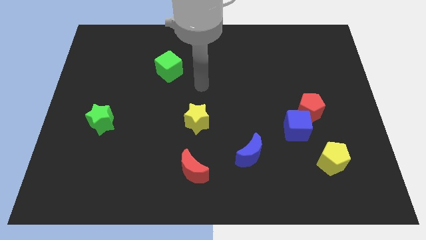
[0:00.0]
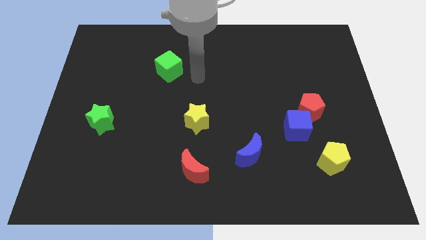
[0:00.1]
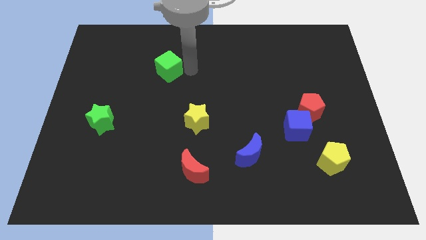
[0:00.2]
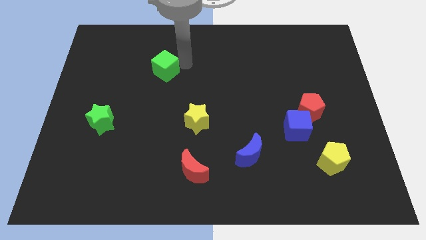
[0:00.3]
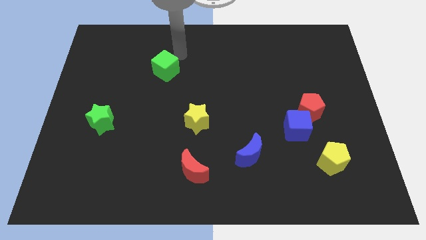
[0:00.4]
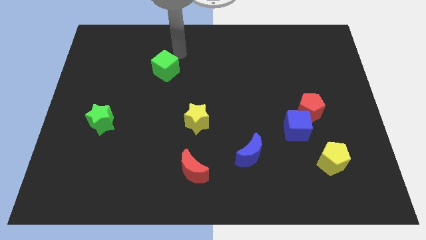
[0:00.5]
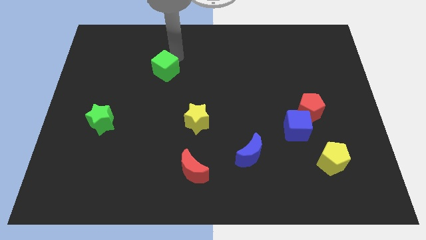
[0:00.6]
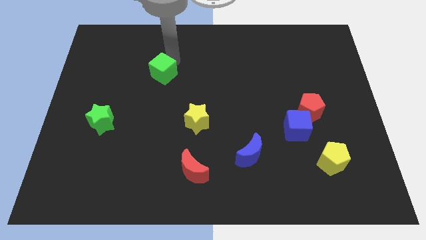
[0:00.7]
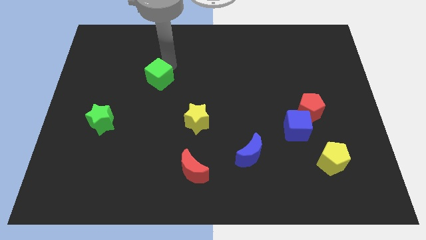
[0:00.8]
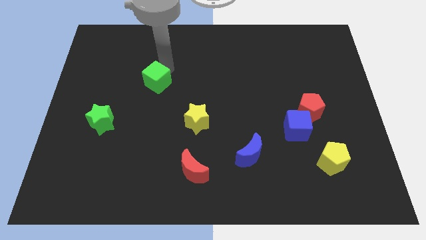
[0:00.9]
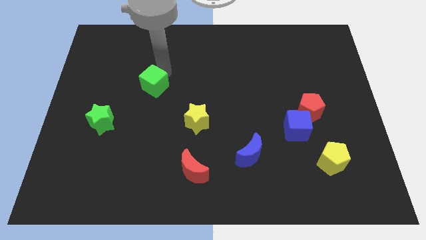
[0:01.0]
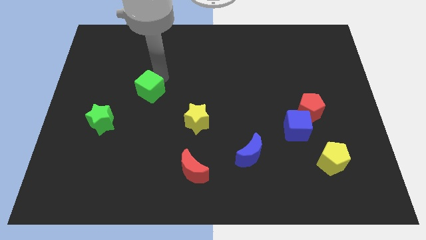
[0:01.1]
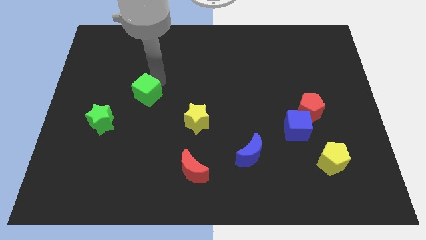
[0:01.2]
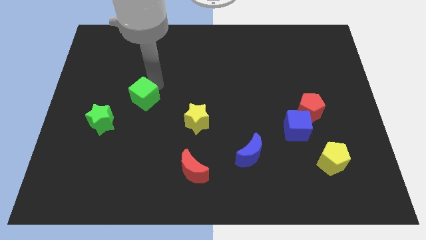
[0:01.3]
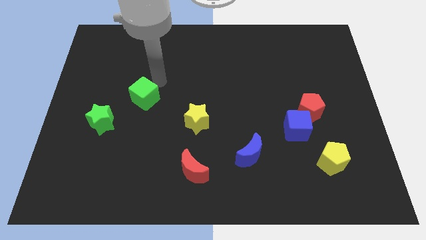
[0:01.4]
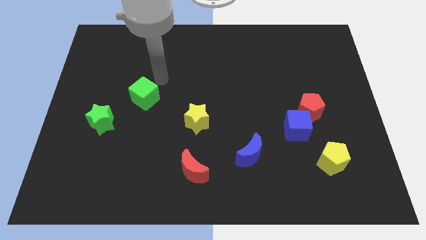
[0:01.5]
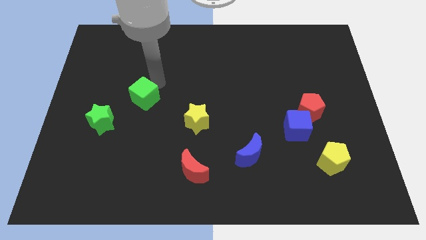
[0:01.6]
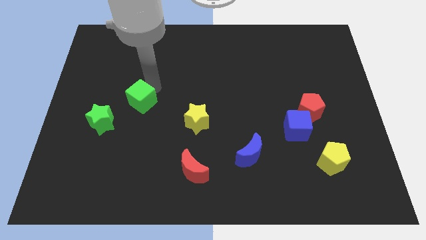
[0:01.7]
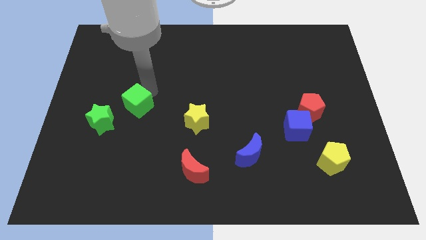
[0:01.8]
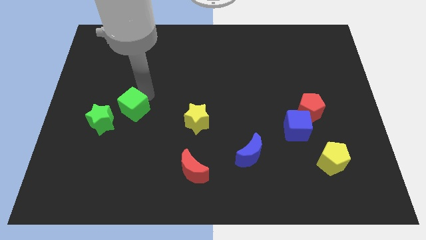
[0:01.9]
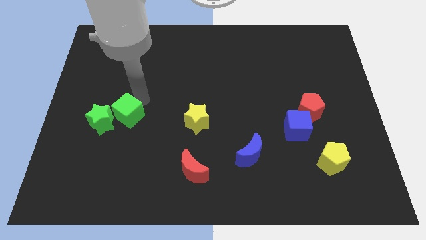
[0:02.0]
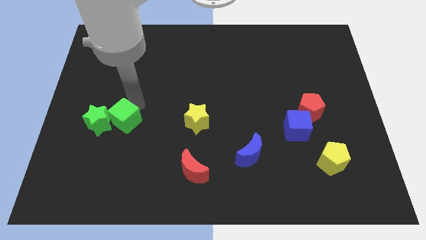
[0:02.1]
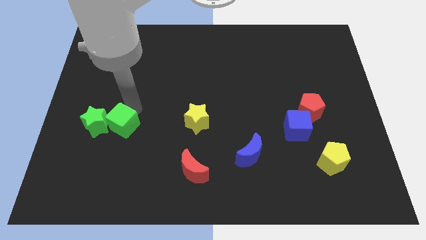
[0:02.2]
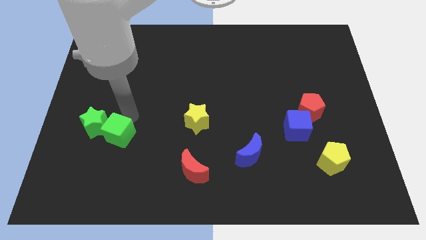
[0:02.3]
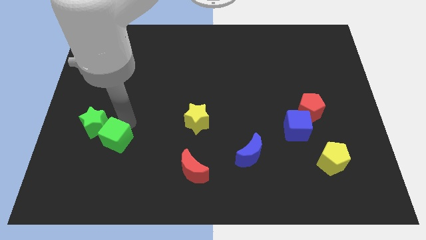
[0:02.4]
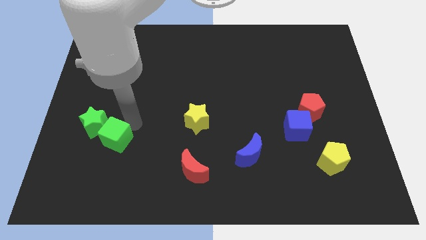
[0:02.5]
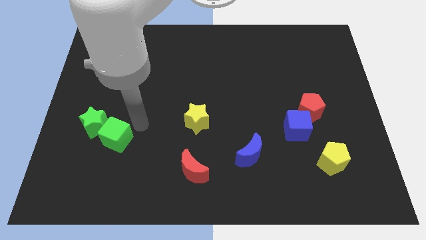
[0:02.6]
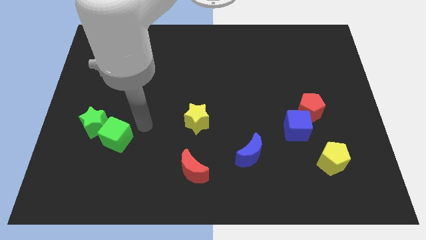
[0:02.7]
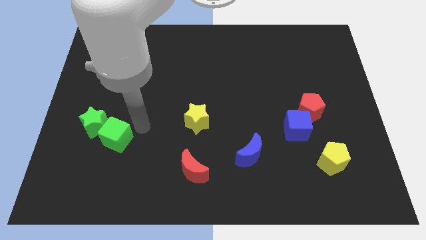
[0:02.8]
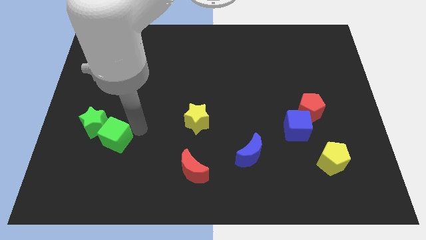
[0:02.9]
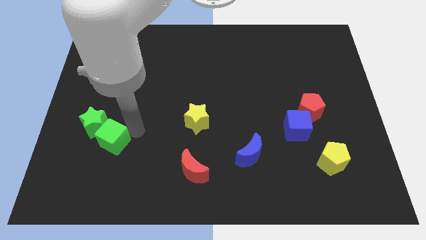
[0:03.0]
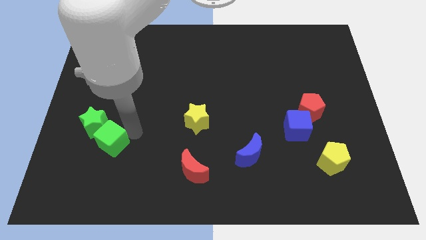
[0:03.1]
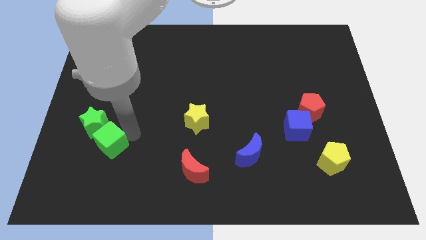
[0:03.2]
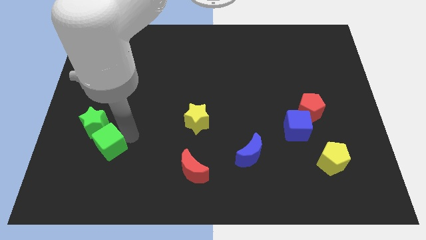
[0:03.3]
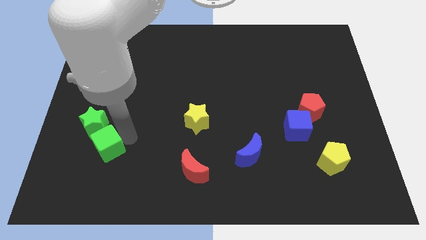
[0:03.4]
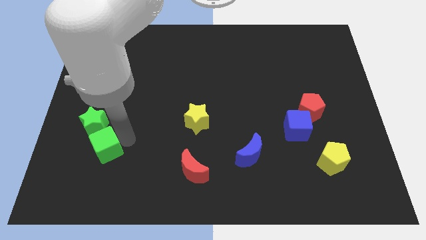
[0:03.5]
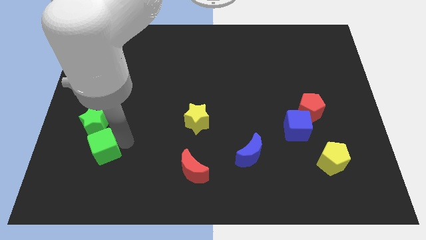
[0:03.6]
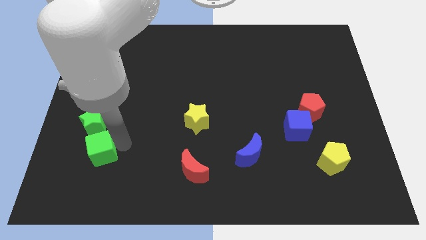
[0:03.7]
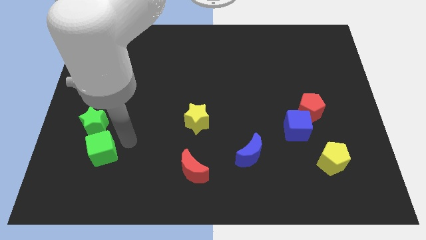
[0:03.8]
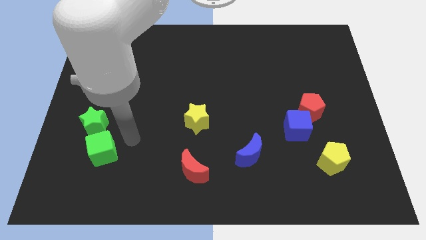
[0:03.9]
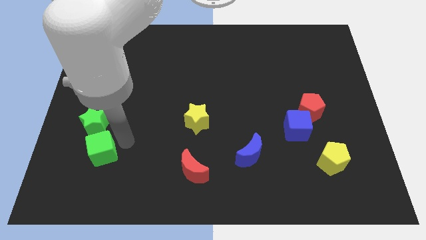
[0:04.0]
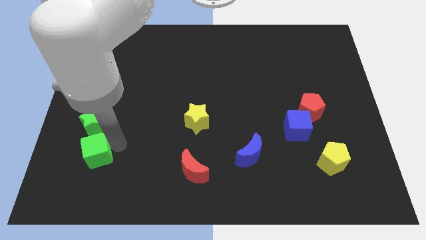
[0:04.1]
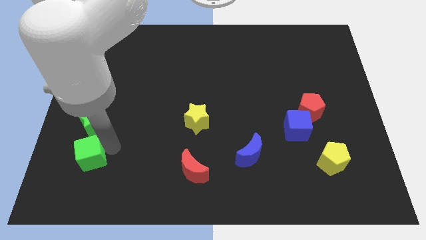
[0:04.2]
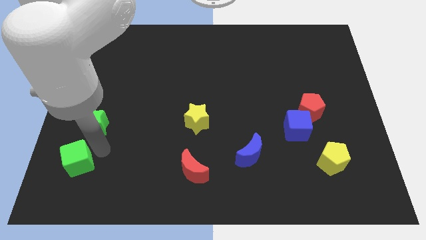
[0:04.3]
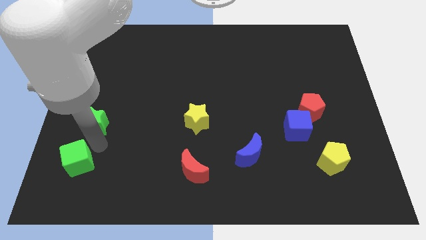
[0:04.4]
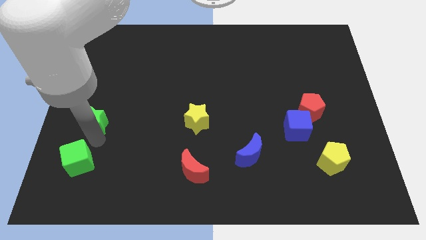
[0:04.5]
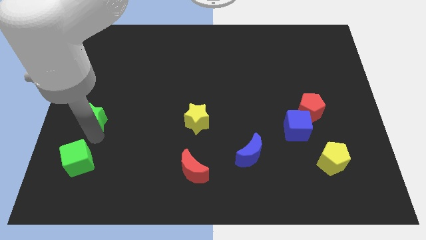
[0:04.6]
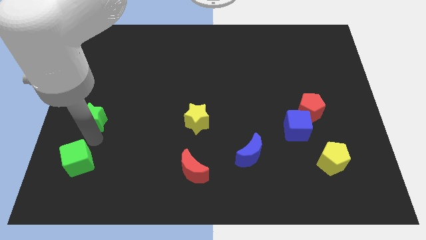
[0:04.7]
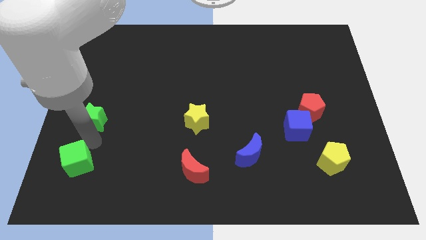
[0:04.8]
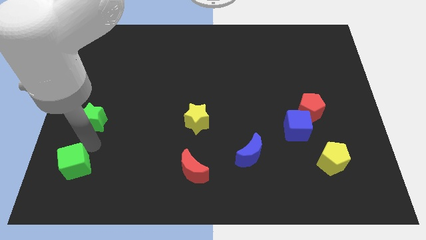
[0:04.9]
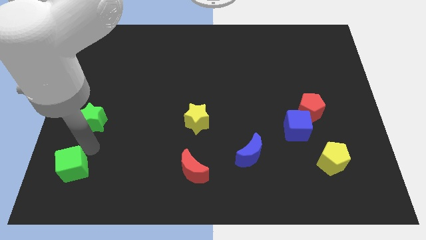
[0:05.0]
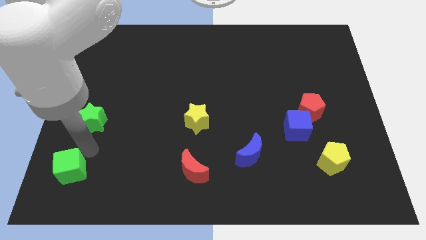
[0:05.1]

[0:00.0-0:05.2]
put the green cube to the bottom left of the board

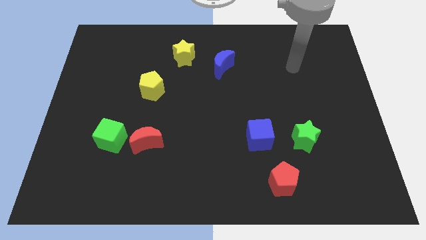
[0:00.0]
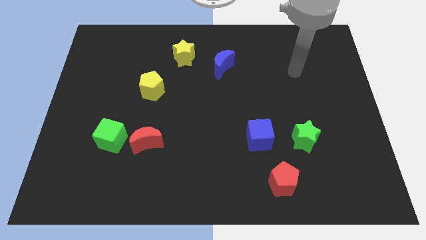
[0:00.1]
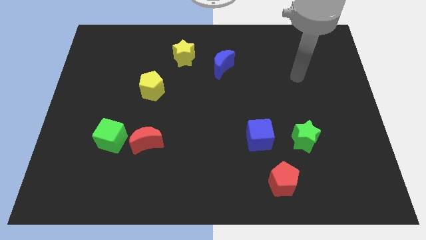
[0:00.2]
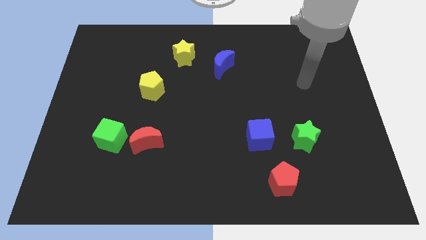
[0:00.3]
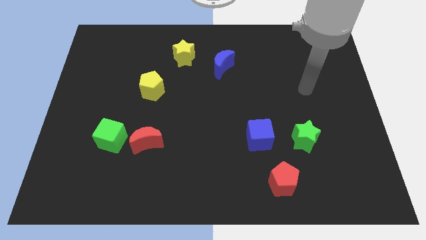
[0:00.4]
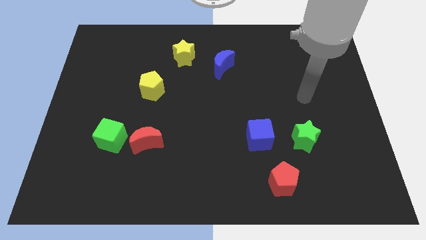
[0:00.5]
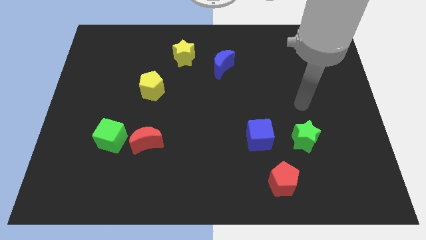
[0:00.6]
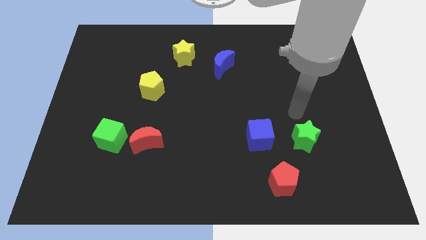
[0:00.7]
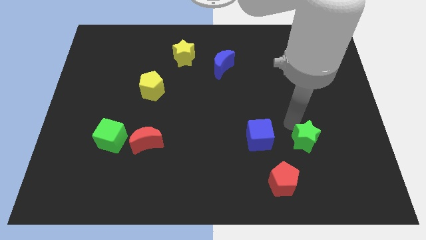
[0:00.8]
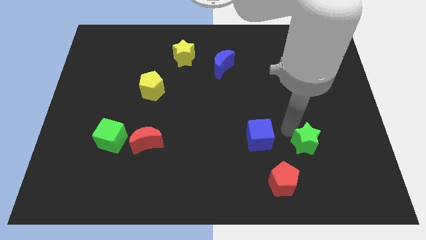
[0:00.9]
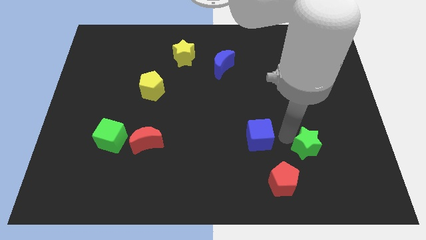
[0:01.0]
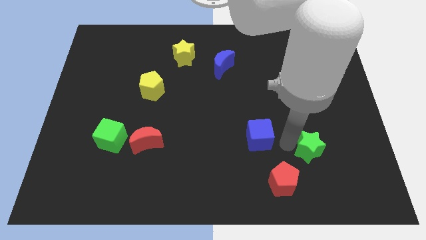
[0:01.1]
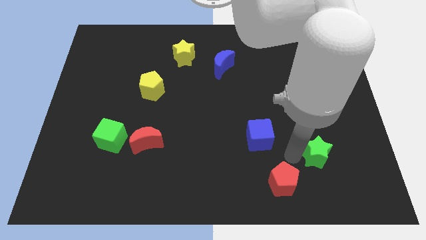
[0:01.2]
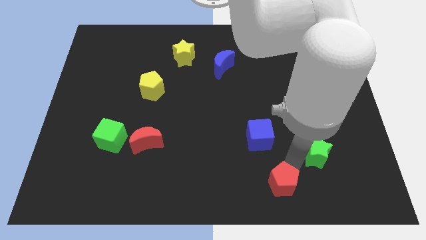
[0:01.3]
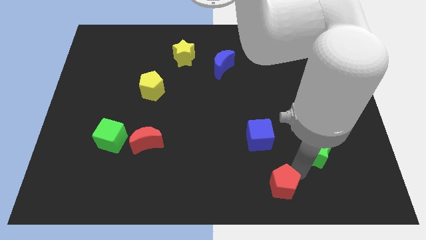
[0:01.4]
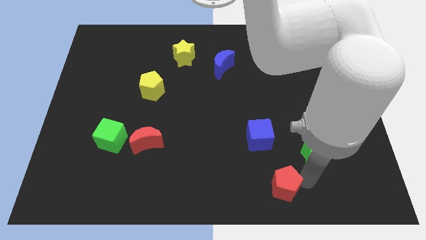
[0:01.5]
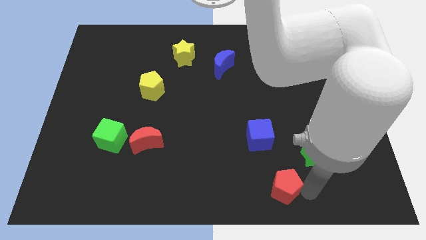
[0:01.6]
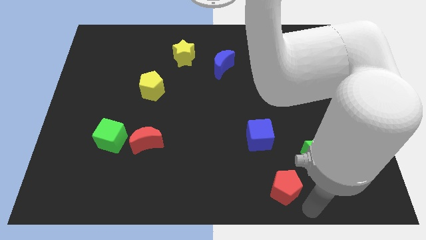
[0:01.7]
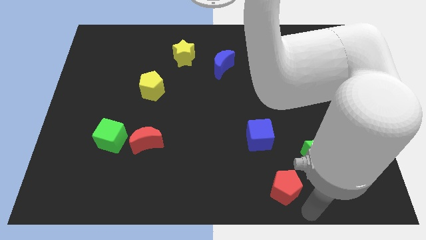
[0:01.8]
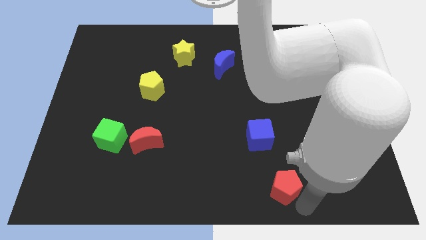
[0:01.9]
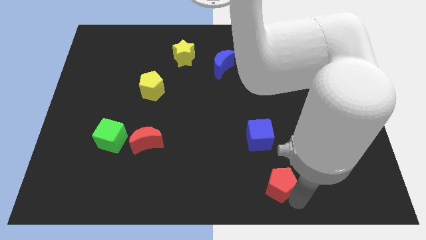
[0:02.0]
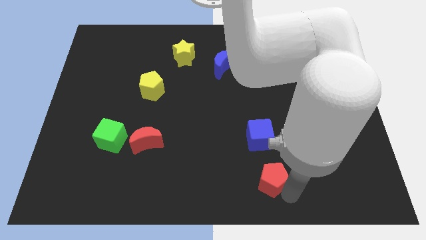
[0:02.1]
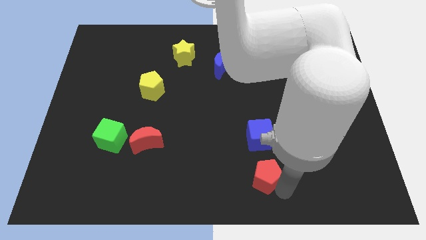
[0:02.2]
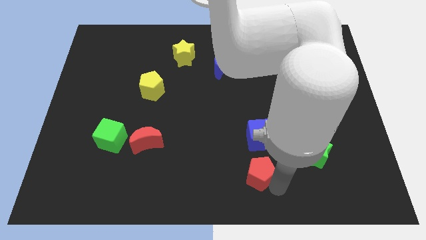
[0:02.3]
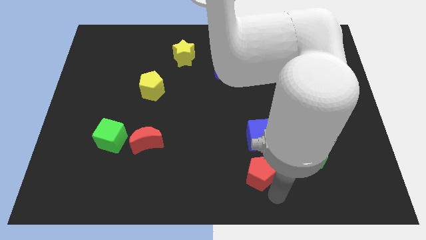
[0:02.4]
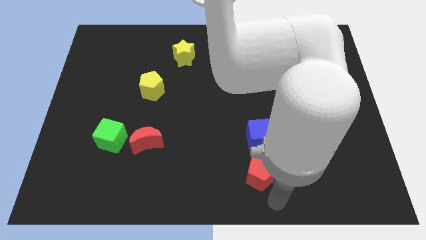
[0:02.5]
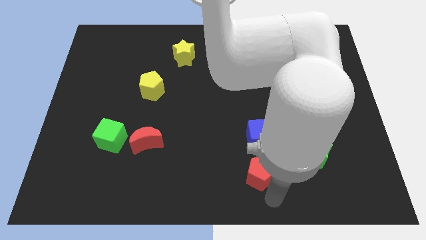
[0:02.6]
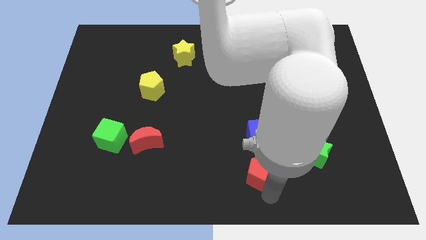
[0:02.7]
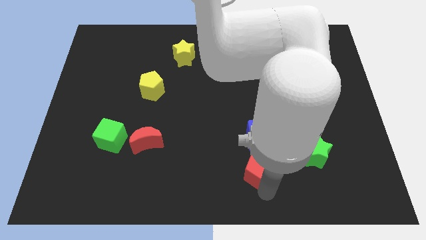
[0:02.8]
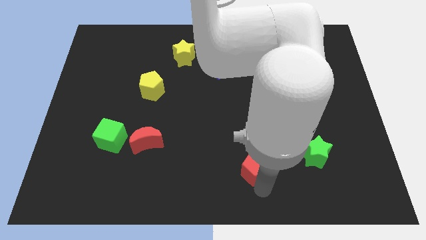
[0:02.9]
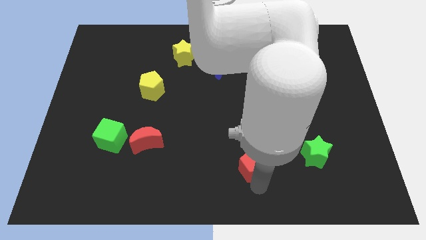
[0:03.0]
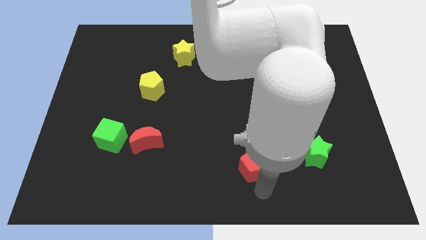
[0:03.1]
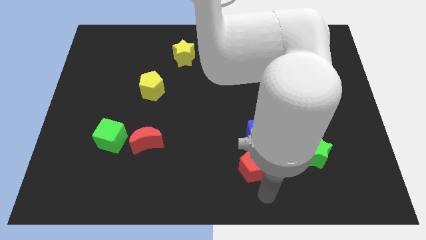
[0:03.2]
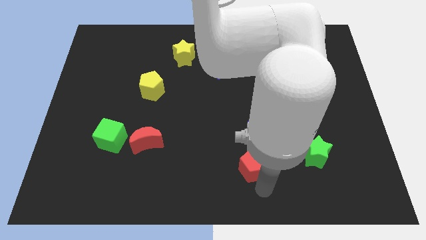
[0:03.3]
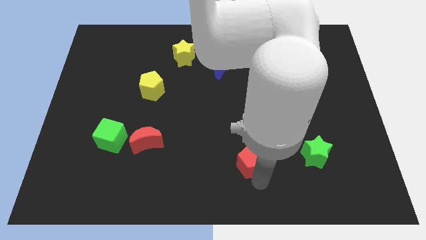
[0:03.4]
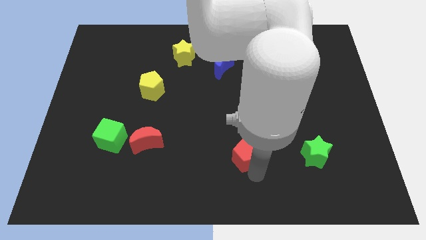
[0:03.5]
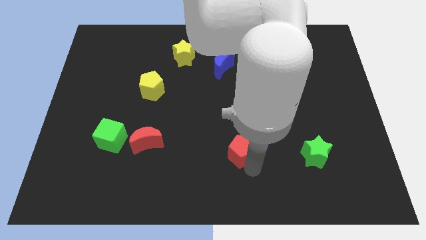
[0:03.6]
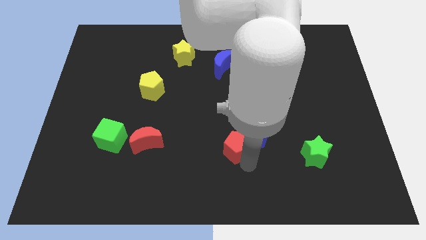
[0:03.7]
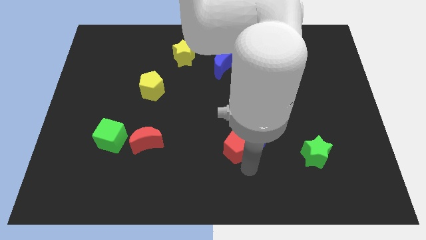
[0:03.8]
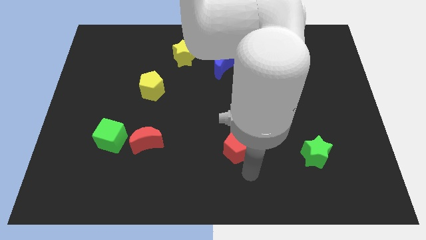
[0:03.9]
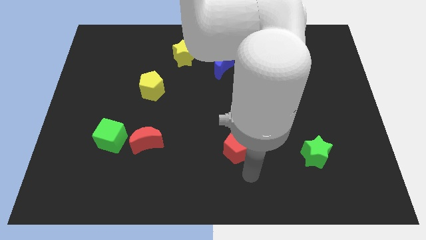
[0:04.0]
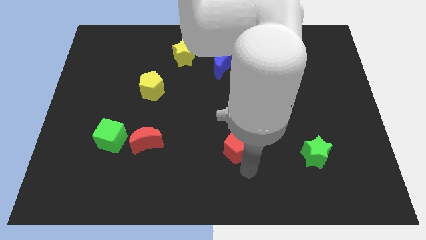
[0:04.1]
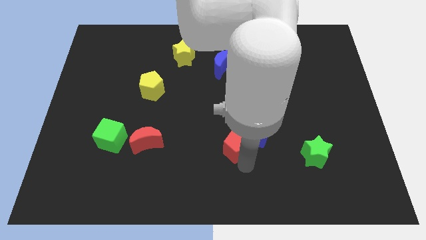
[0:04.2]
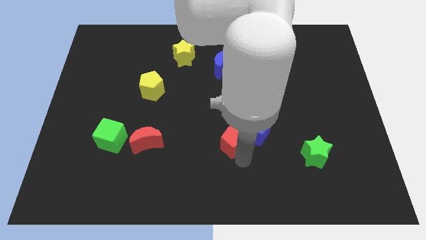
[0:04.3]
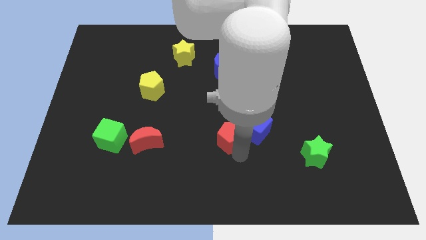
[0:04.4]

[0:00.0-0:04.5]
put the red pentagon to the middle of the board
